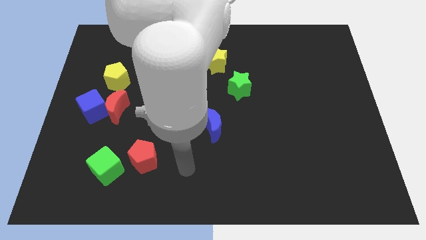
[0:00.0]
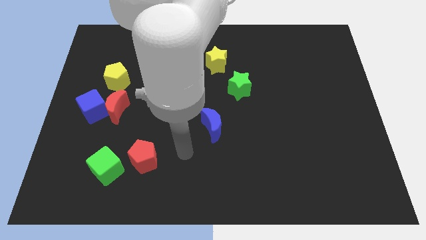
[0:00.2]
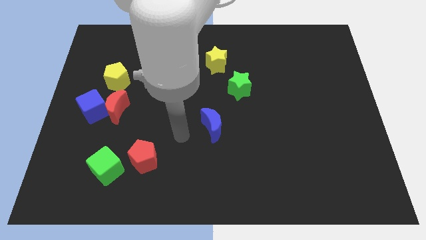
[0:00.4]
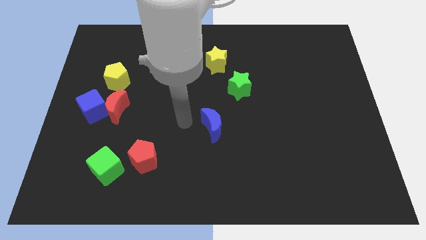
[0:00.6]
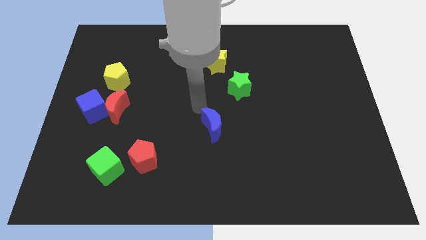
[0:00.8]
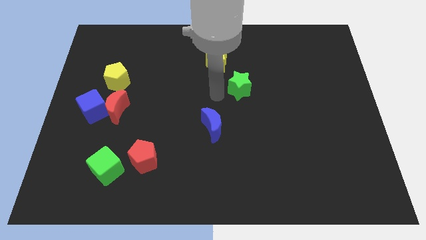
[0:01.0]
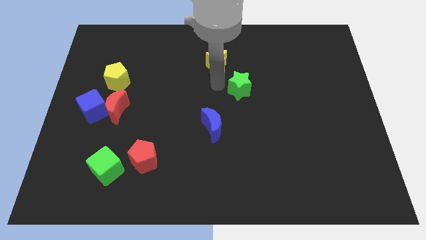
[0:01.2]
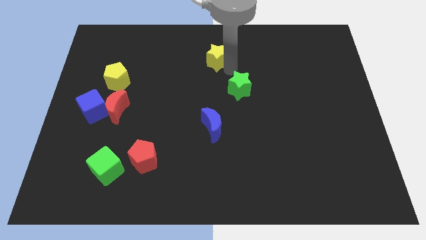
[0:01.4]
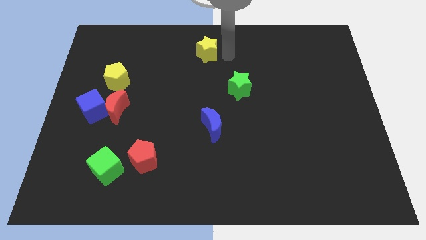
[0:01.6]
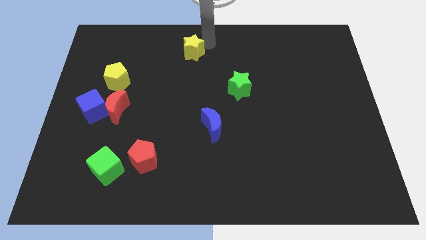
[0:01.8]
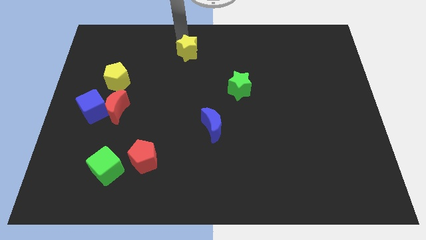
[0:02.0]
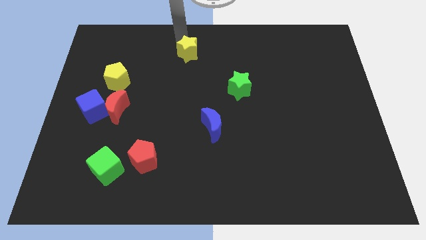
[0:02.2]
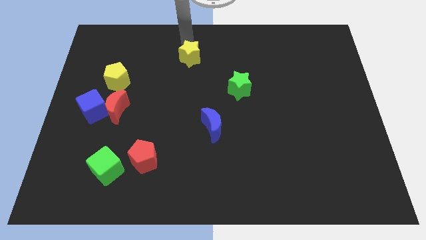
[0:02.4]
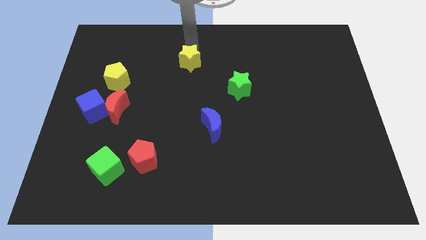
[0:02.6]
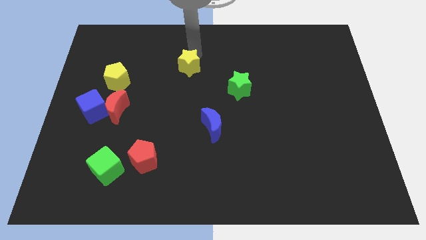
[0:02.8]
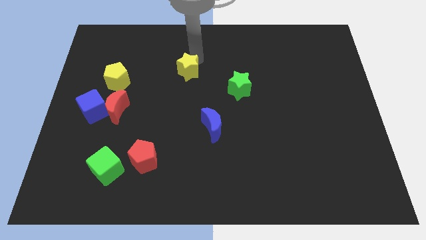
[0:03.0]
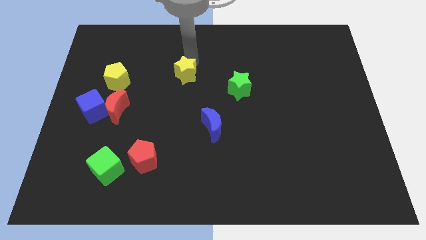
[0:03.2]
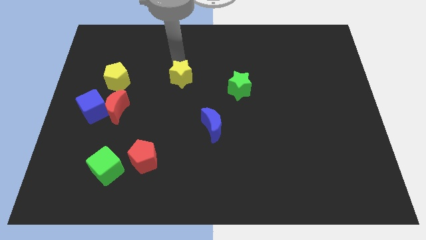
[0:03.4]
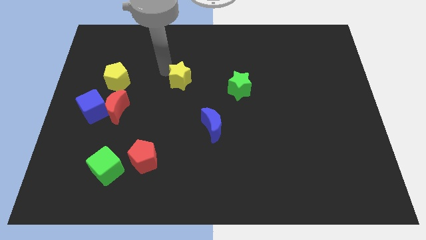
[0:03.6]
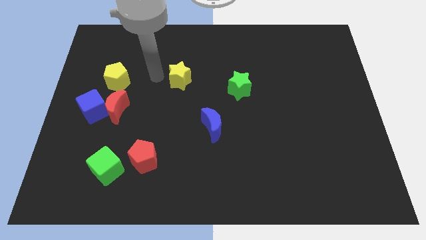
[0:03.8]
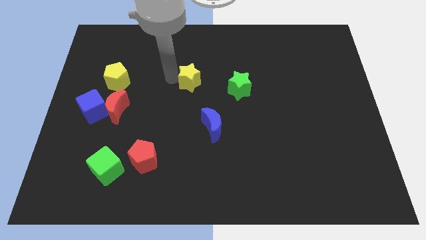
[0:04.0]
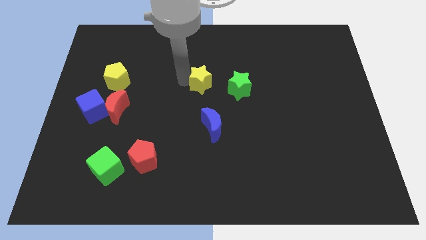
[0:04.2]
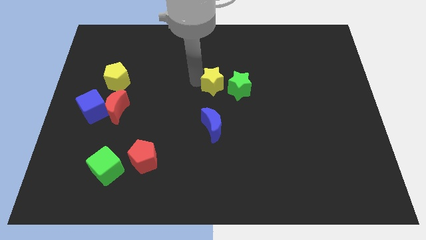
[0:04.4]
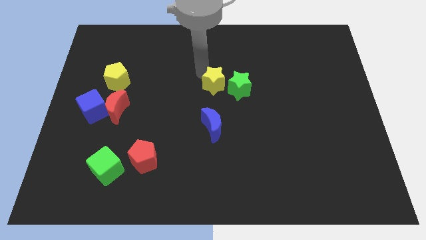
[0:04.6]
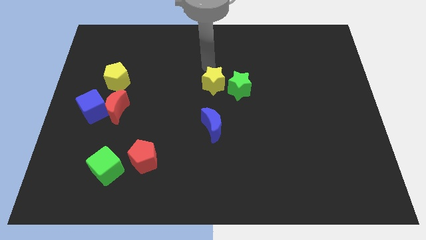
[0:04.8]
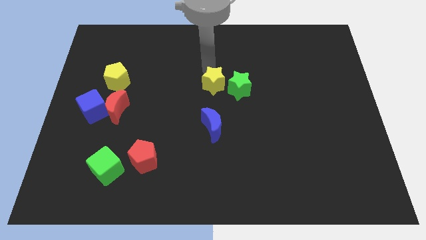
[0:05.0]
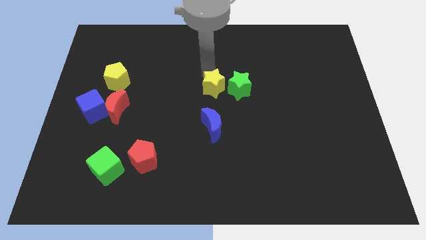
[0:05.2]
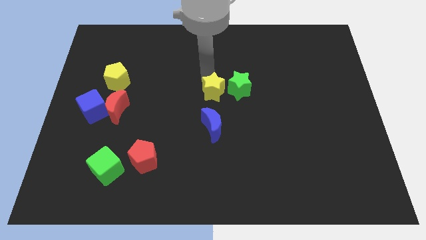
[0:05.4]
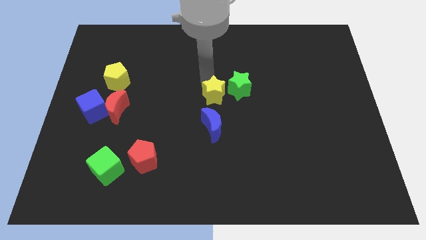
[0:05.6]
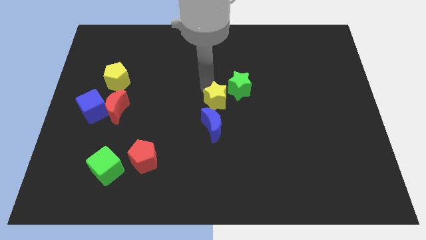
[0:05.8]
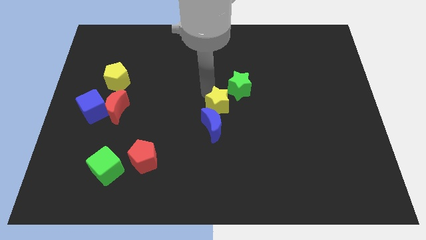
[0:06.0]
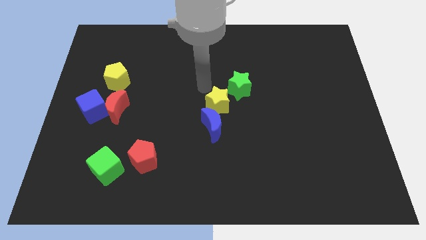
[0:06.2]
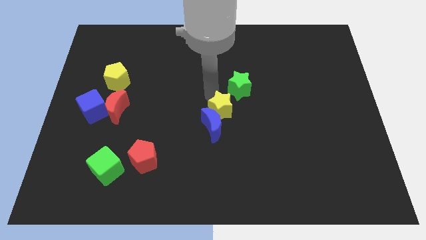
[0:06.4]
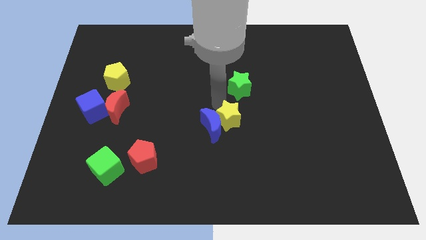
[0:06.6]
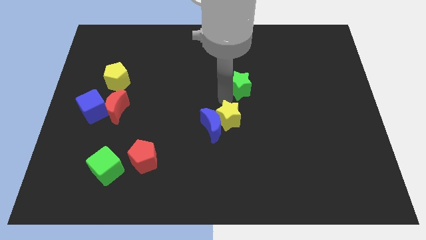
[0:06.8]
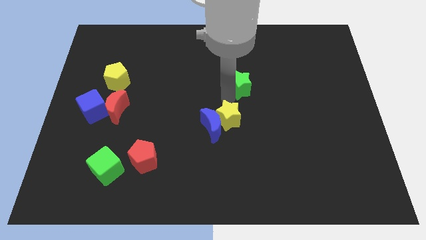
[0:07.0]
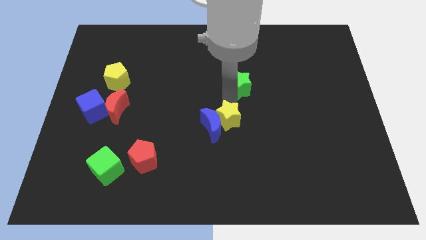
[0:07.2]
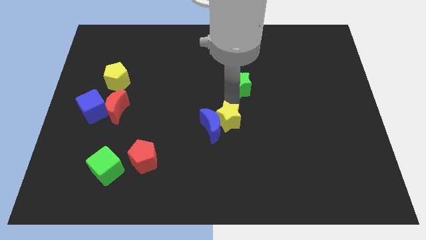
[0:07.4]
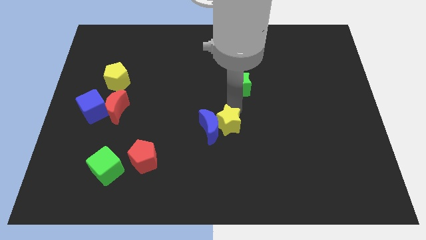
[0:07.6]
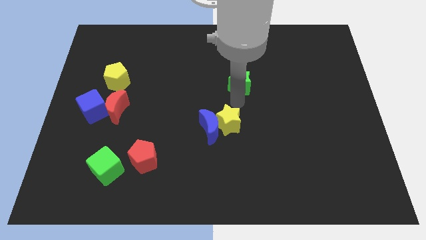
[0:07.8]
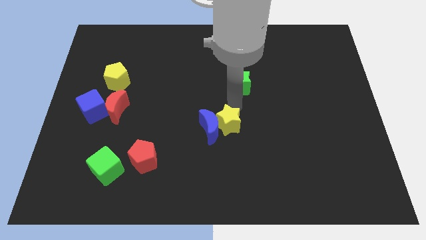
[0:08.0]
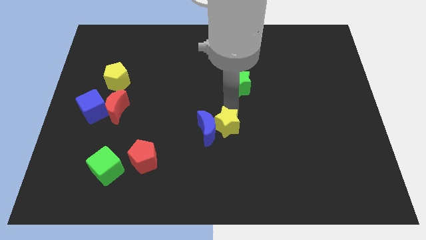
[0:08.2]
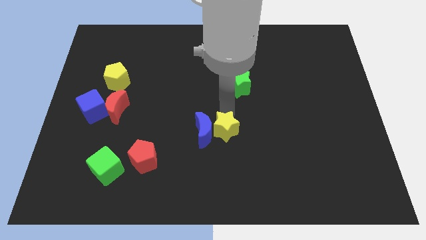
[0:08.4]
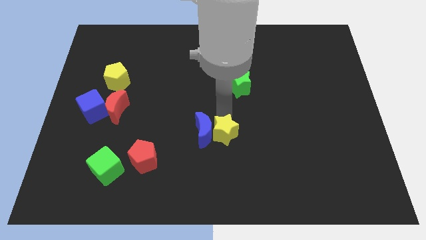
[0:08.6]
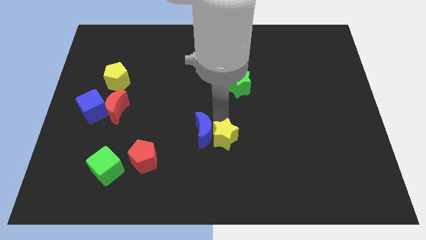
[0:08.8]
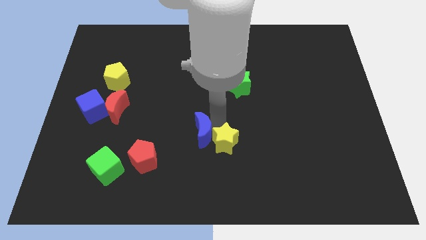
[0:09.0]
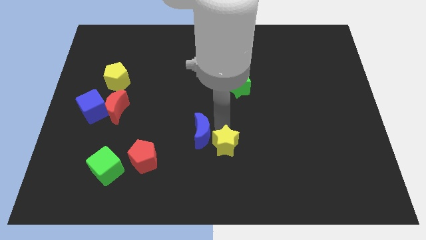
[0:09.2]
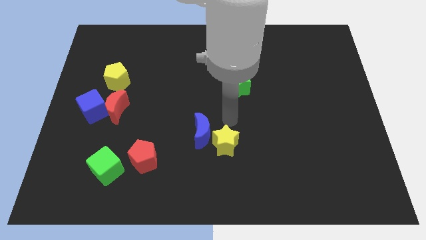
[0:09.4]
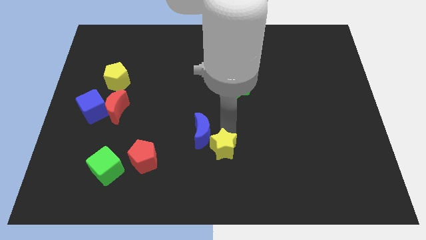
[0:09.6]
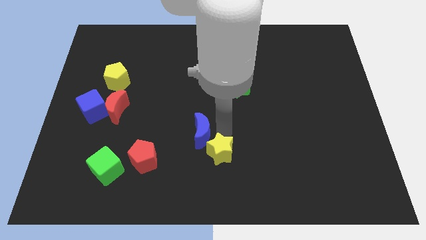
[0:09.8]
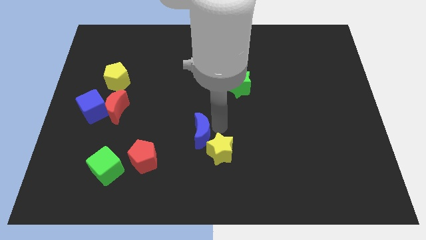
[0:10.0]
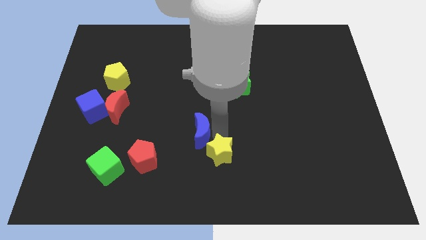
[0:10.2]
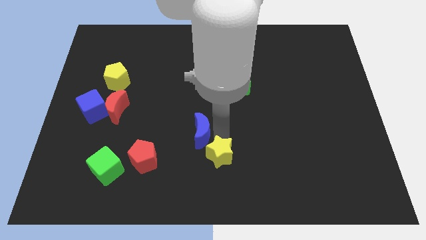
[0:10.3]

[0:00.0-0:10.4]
push the yellow star to the bottom

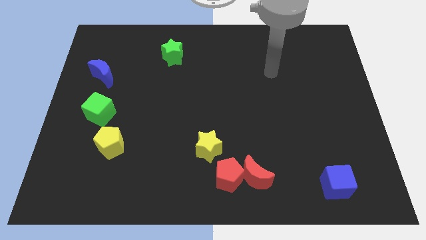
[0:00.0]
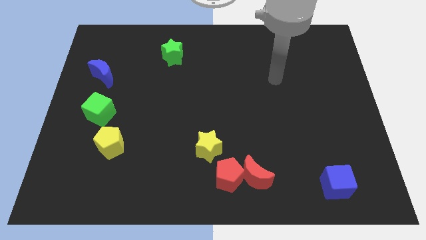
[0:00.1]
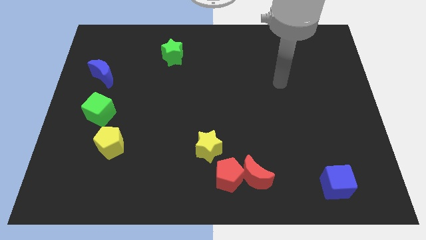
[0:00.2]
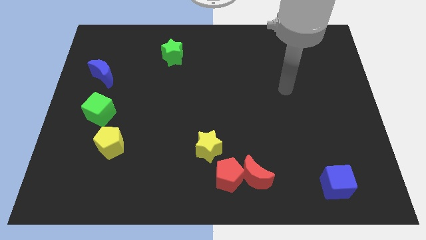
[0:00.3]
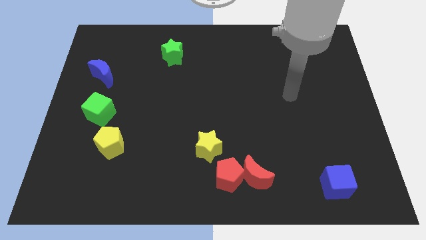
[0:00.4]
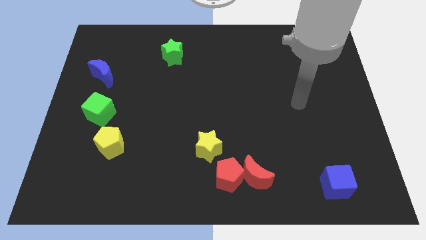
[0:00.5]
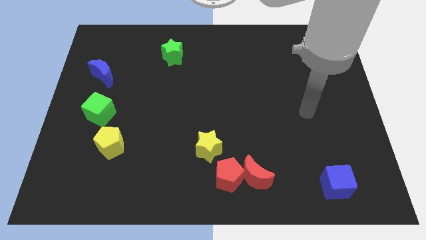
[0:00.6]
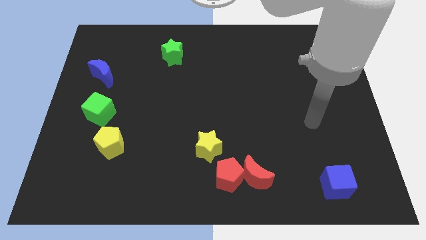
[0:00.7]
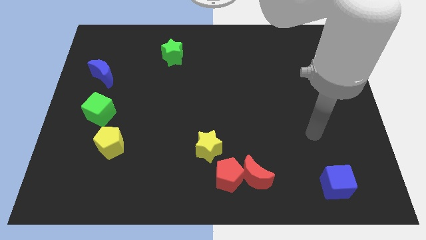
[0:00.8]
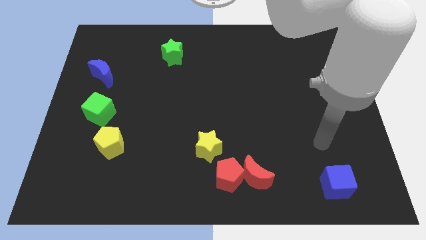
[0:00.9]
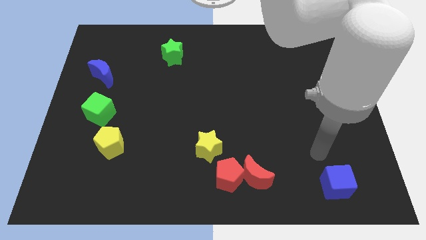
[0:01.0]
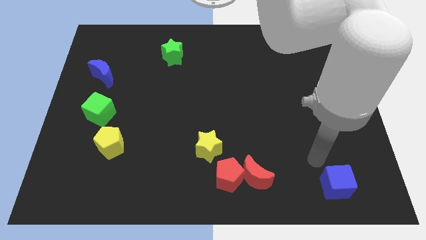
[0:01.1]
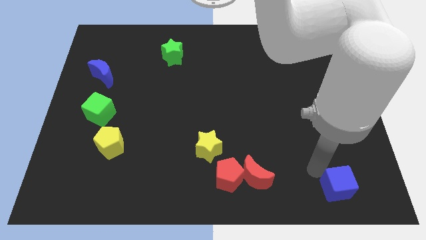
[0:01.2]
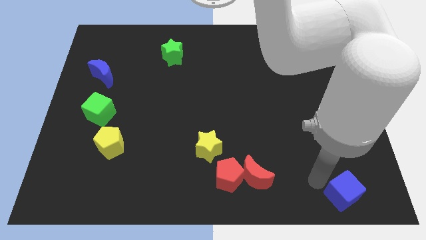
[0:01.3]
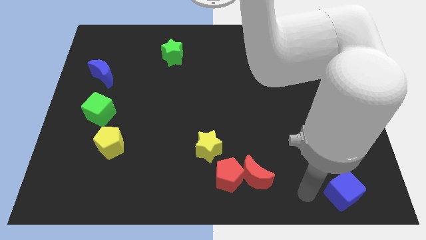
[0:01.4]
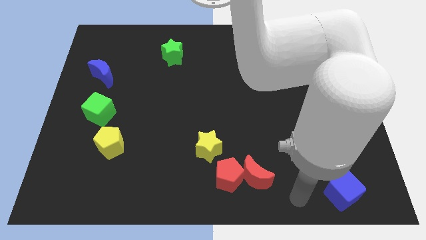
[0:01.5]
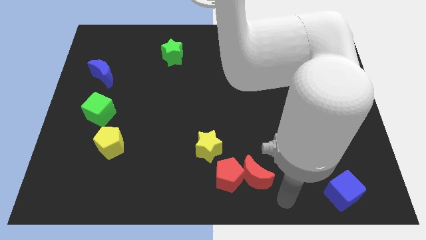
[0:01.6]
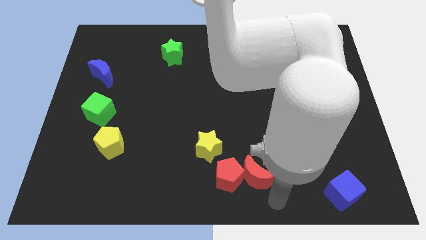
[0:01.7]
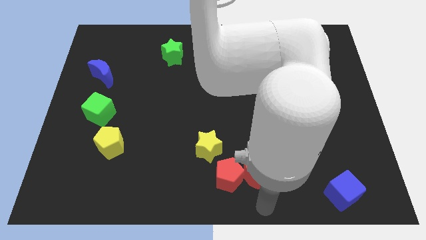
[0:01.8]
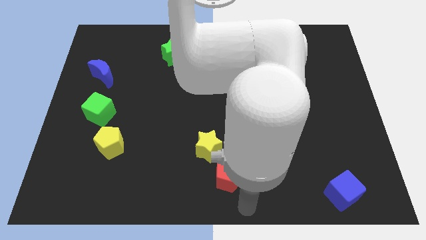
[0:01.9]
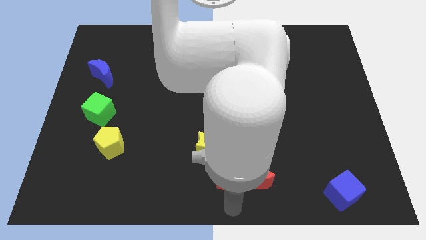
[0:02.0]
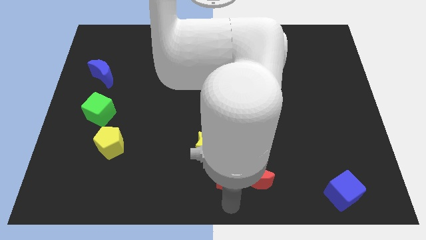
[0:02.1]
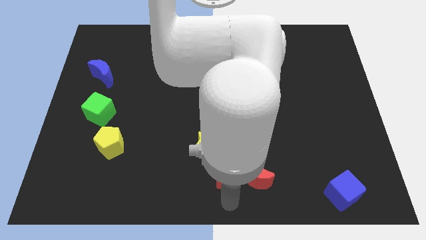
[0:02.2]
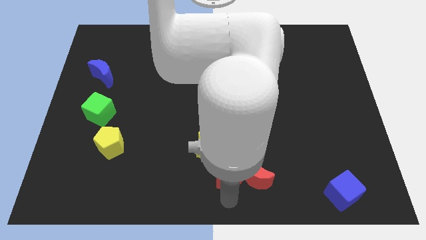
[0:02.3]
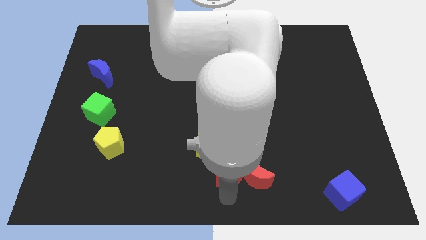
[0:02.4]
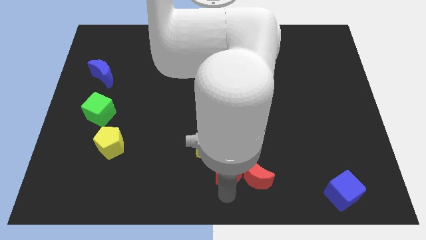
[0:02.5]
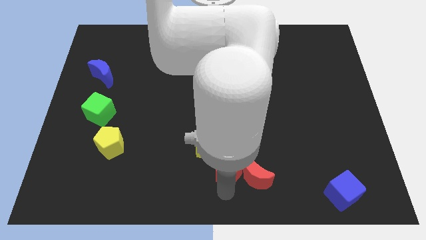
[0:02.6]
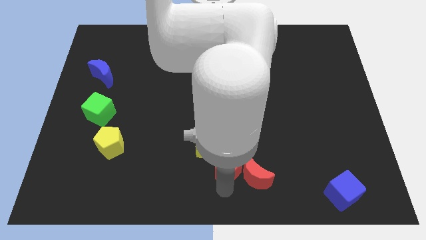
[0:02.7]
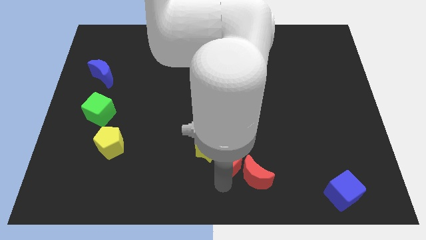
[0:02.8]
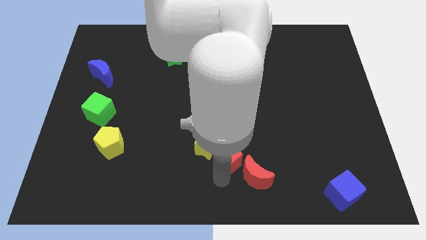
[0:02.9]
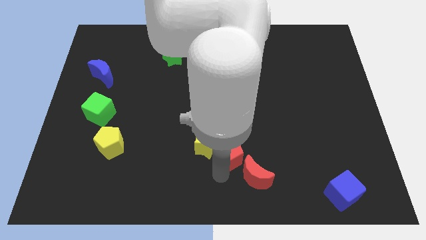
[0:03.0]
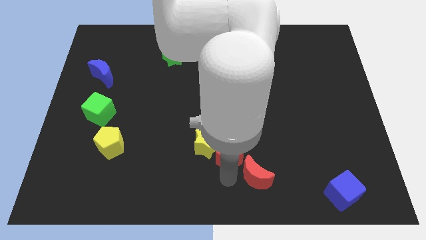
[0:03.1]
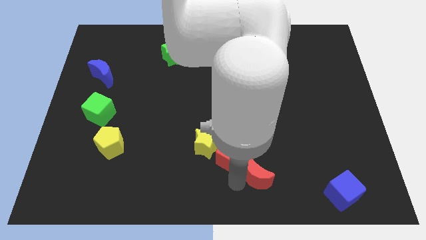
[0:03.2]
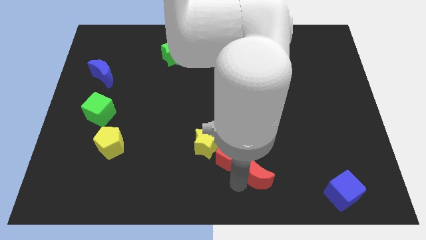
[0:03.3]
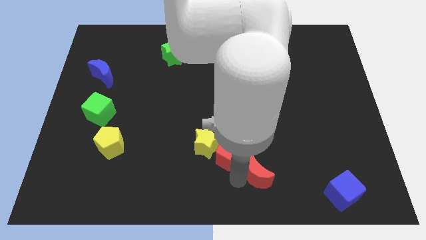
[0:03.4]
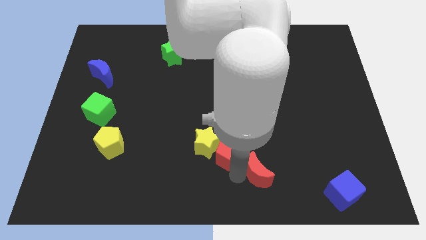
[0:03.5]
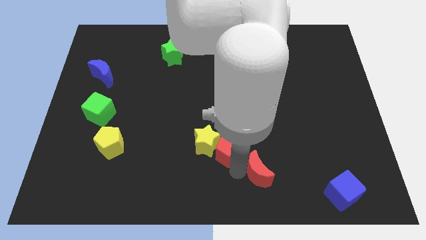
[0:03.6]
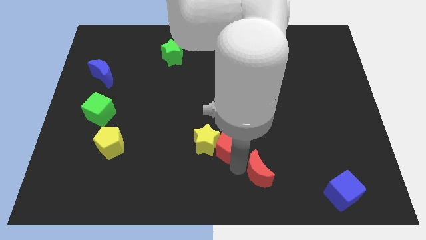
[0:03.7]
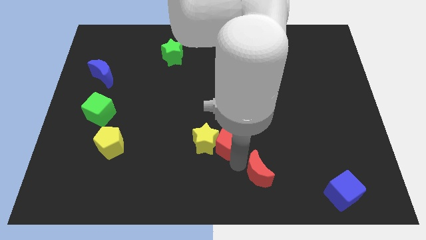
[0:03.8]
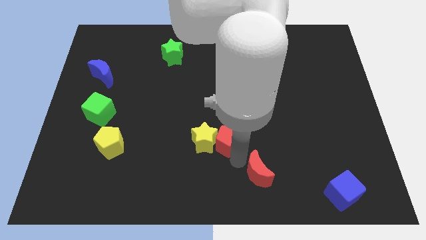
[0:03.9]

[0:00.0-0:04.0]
push the red pentagon to the middle of the board
